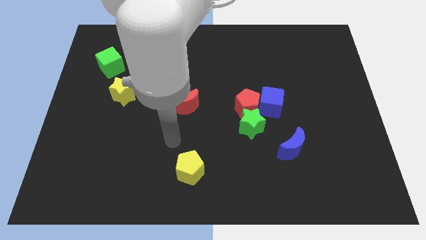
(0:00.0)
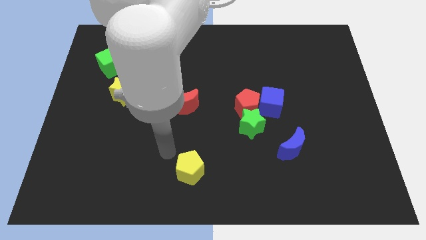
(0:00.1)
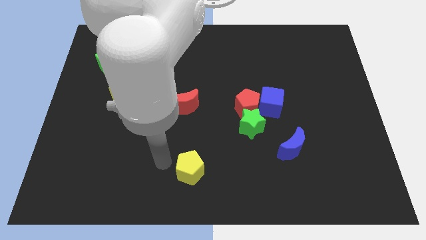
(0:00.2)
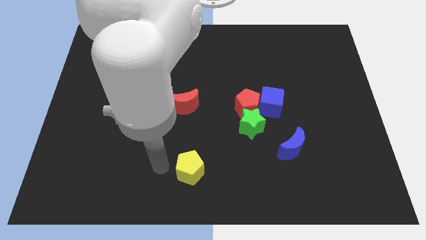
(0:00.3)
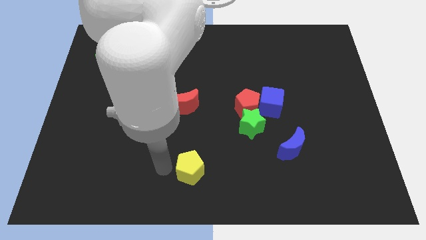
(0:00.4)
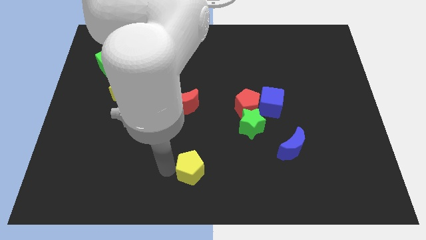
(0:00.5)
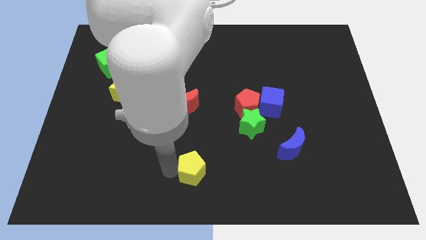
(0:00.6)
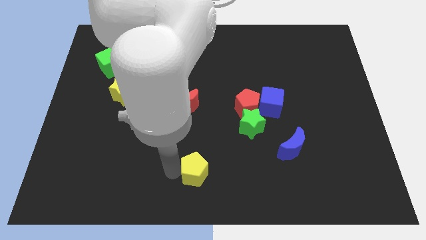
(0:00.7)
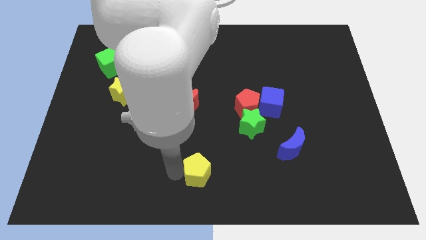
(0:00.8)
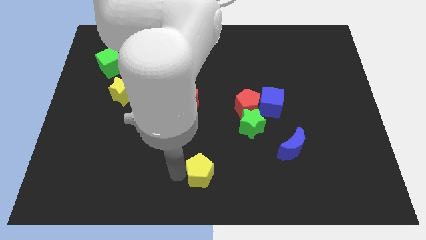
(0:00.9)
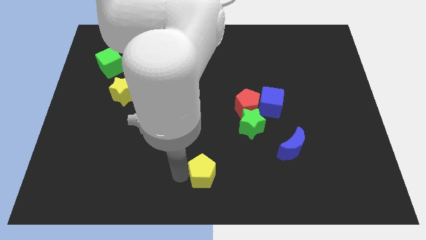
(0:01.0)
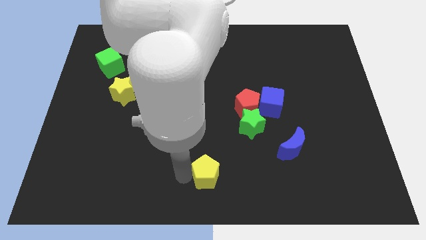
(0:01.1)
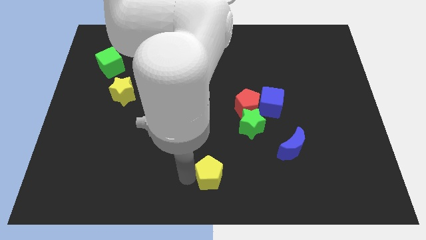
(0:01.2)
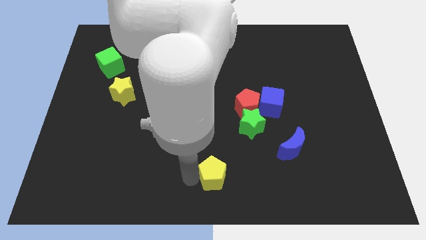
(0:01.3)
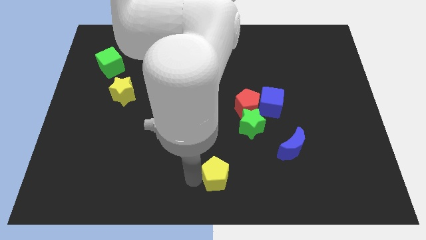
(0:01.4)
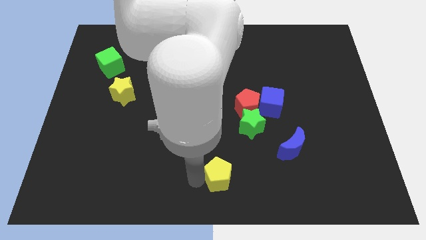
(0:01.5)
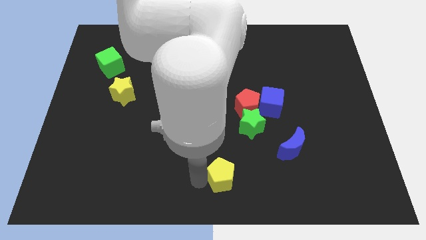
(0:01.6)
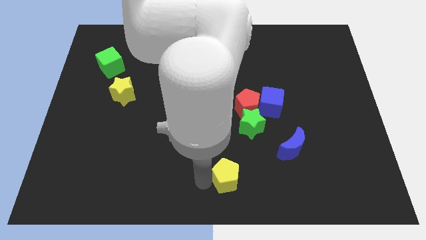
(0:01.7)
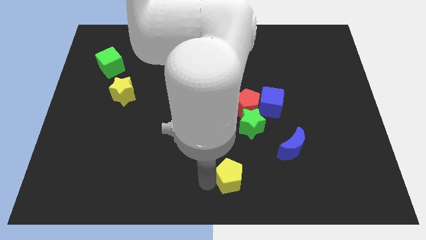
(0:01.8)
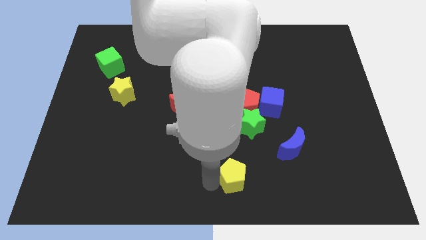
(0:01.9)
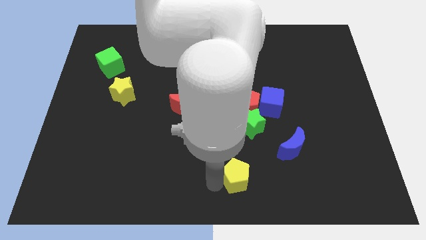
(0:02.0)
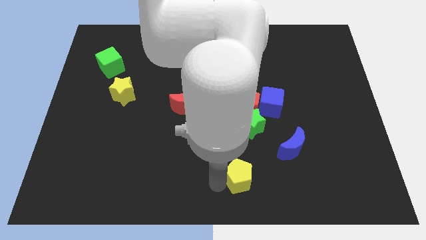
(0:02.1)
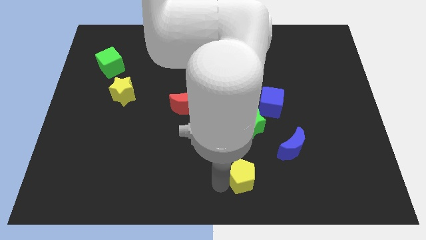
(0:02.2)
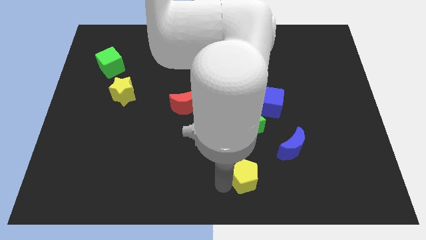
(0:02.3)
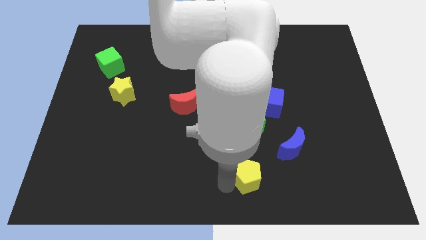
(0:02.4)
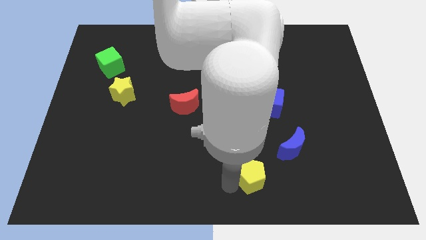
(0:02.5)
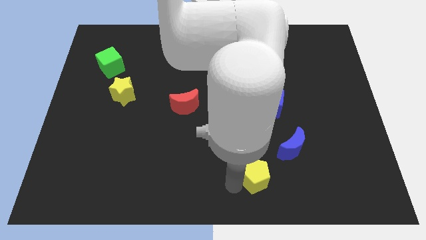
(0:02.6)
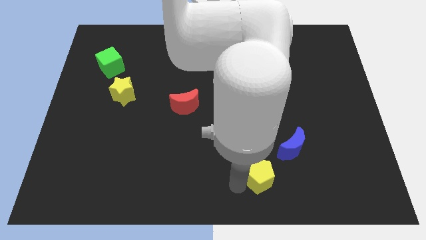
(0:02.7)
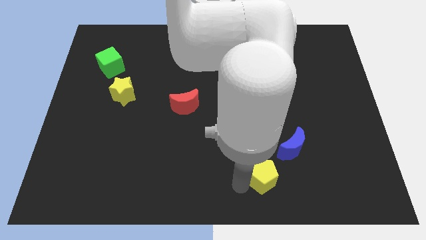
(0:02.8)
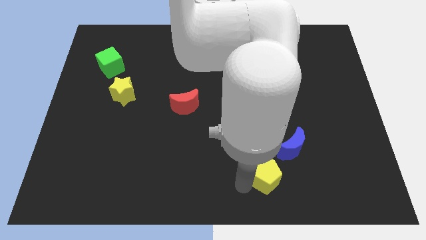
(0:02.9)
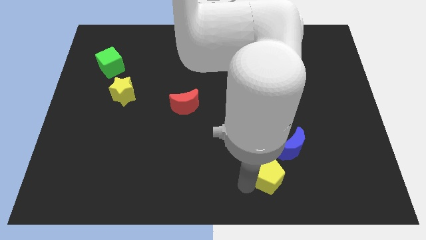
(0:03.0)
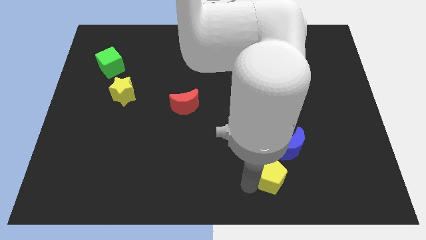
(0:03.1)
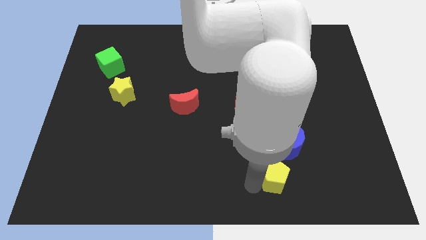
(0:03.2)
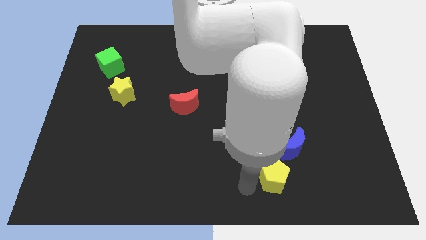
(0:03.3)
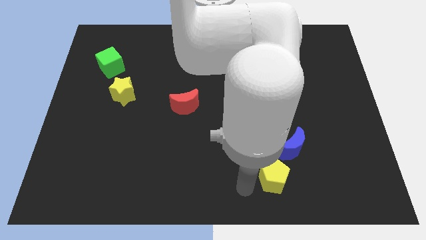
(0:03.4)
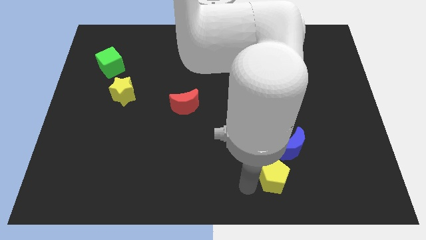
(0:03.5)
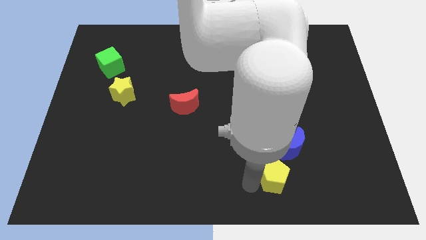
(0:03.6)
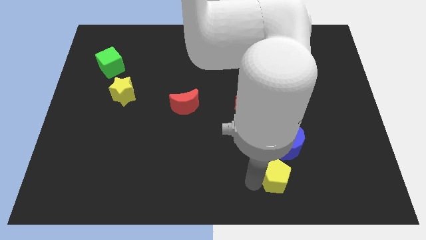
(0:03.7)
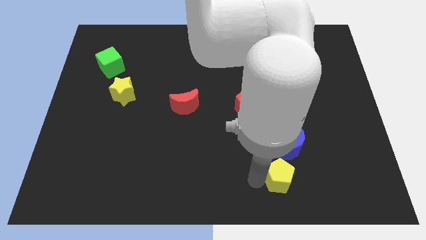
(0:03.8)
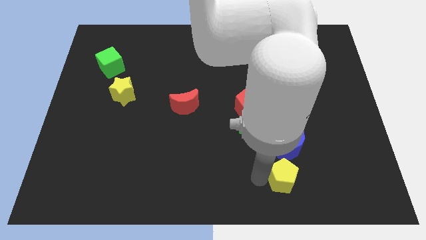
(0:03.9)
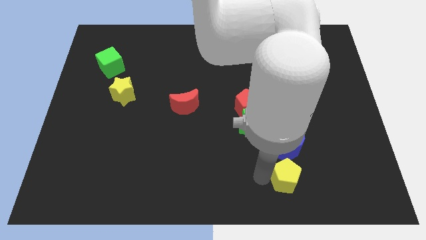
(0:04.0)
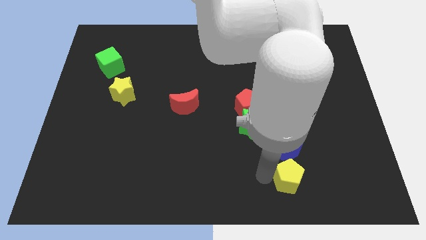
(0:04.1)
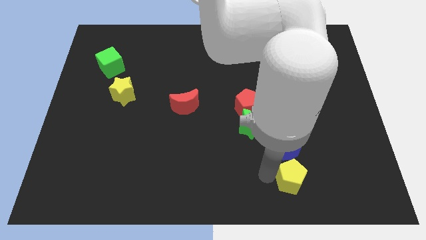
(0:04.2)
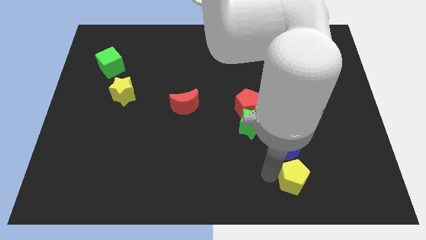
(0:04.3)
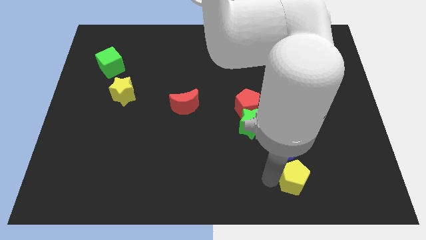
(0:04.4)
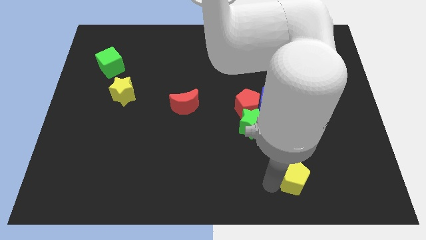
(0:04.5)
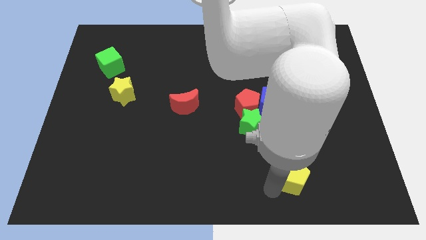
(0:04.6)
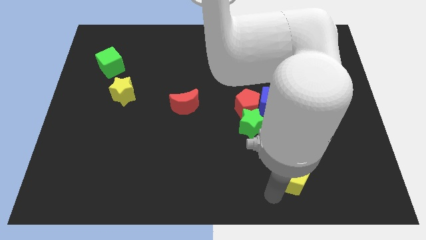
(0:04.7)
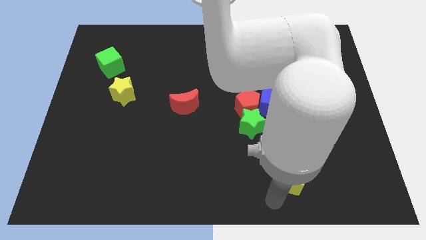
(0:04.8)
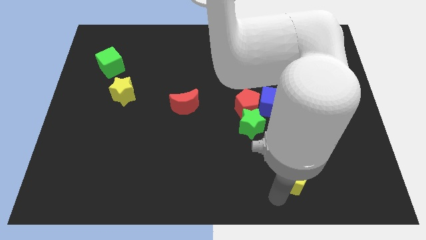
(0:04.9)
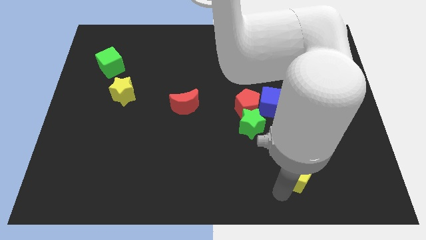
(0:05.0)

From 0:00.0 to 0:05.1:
push the yellow pentagon to the bottom right side of the blue moon

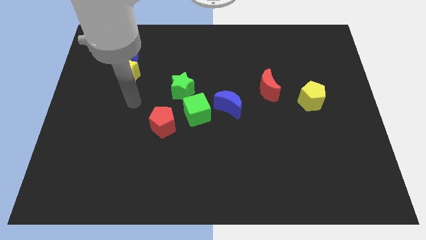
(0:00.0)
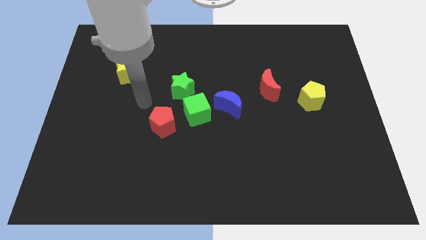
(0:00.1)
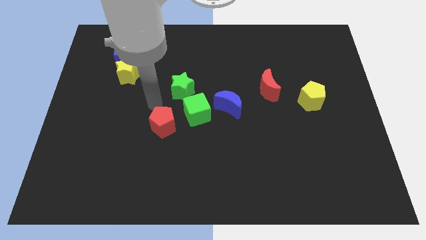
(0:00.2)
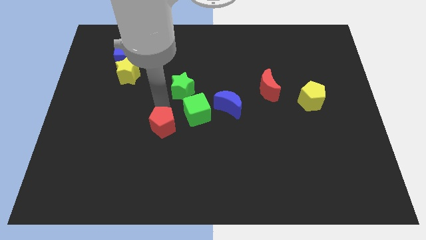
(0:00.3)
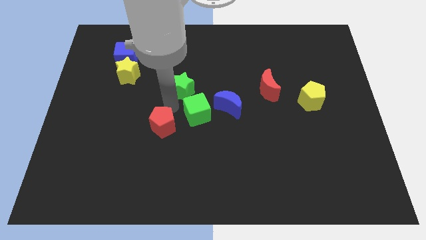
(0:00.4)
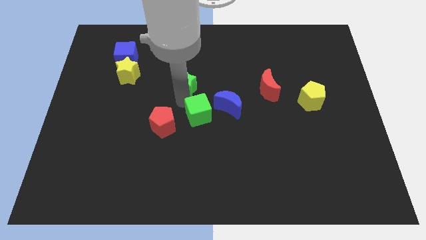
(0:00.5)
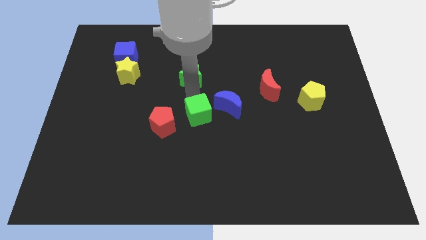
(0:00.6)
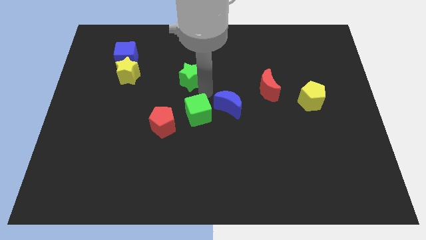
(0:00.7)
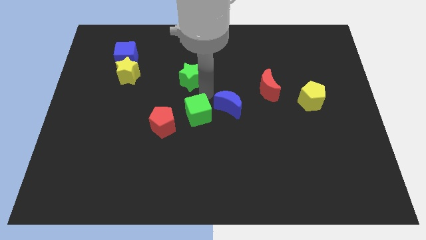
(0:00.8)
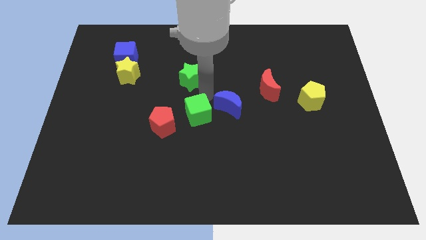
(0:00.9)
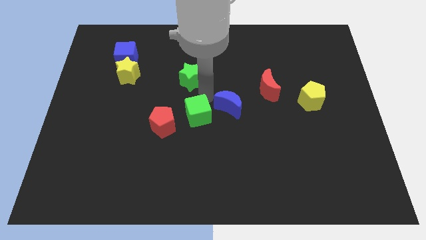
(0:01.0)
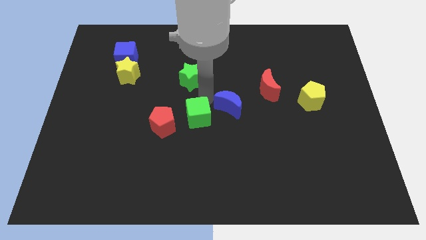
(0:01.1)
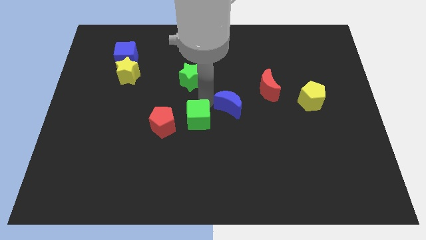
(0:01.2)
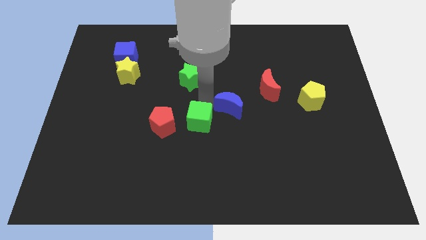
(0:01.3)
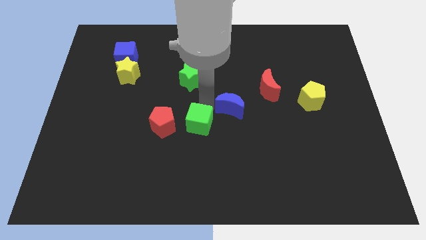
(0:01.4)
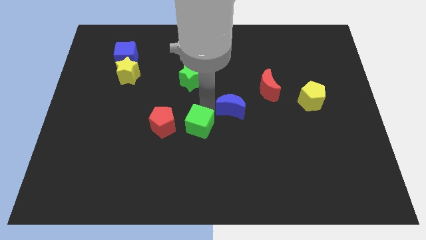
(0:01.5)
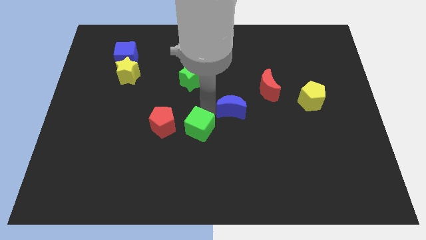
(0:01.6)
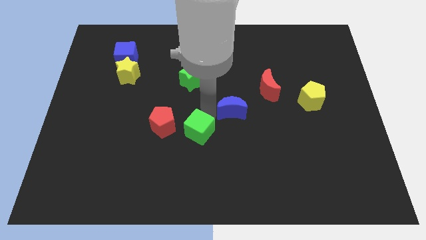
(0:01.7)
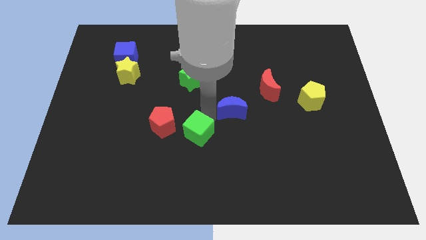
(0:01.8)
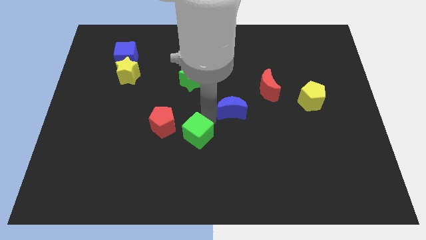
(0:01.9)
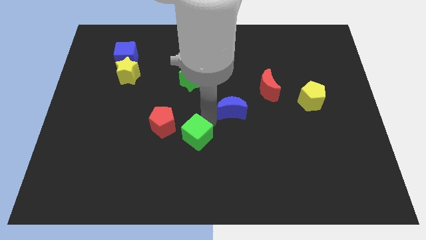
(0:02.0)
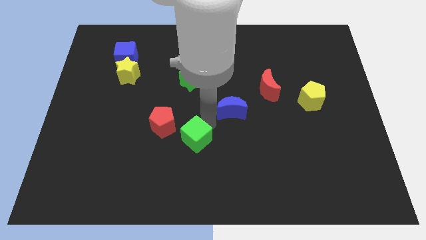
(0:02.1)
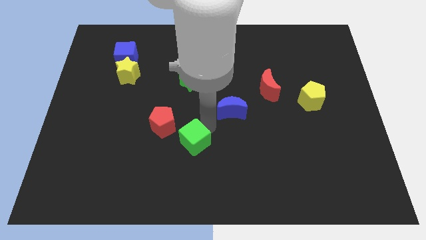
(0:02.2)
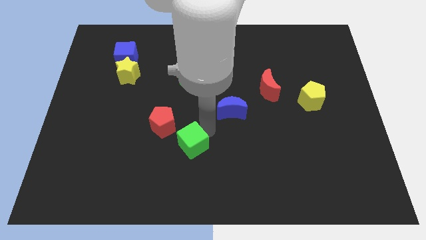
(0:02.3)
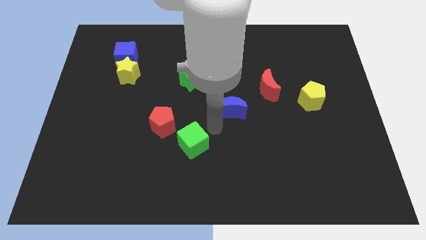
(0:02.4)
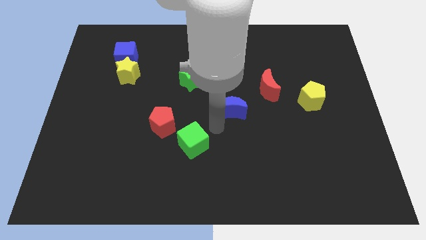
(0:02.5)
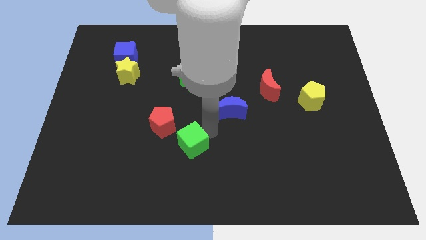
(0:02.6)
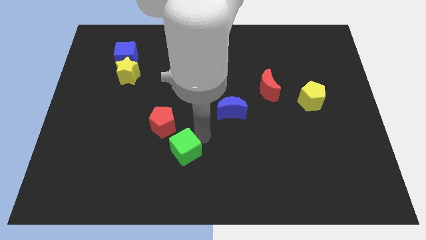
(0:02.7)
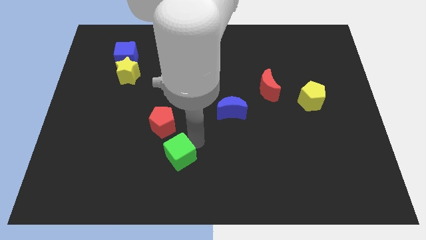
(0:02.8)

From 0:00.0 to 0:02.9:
put the green cube to the bottom side of the red pentagon
